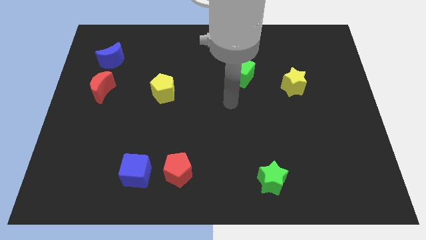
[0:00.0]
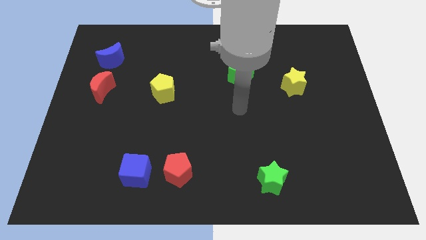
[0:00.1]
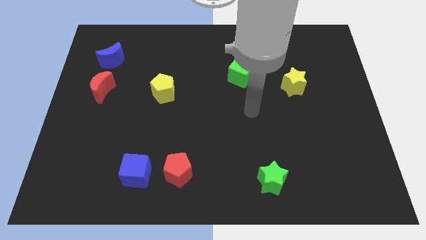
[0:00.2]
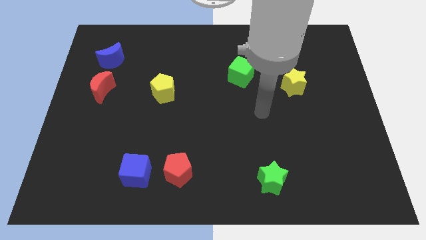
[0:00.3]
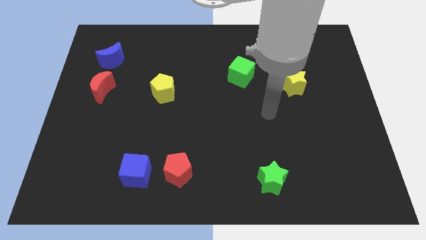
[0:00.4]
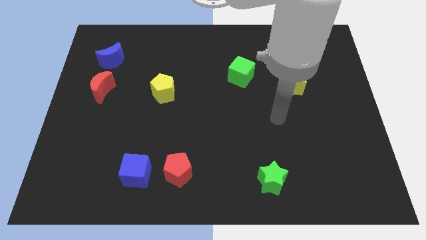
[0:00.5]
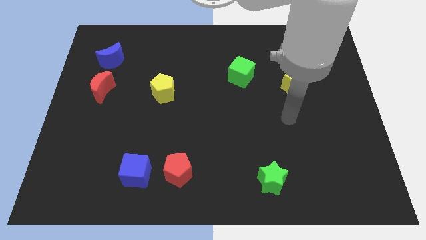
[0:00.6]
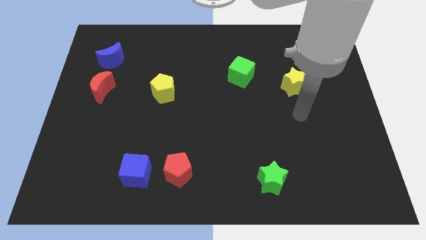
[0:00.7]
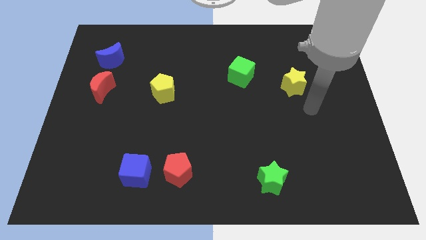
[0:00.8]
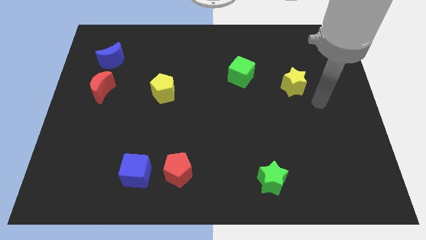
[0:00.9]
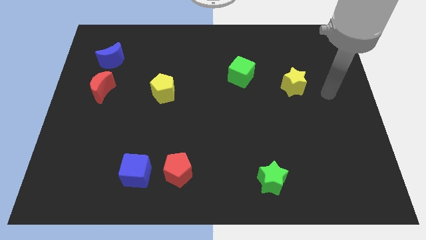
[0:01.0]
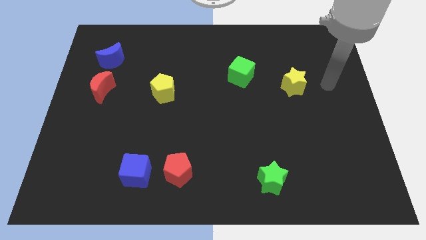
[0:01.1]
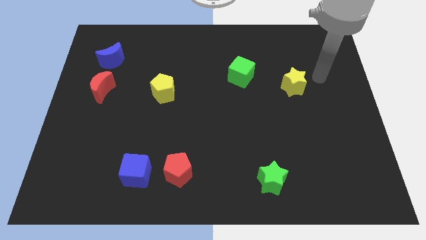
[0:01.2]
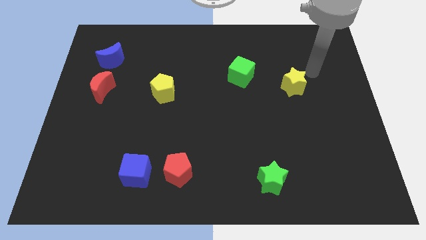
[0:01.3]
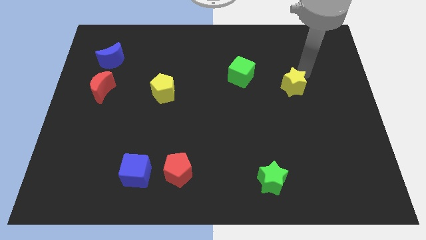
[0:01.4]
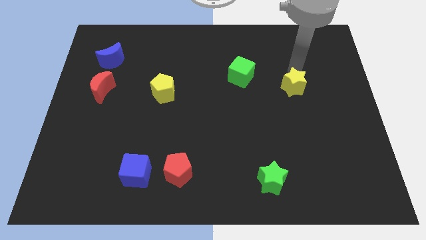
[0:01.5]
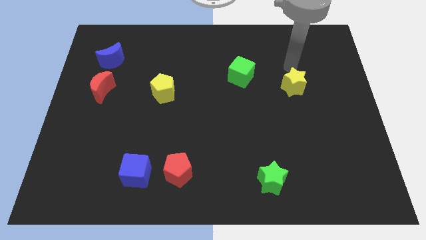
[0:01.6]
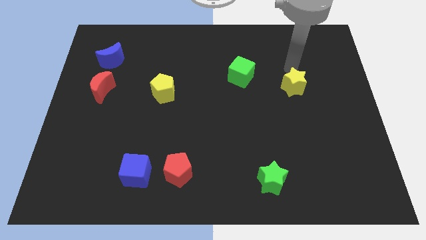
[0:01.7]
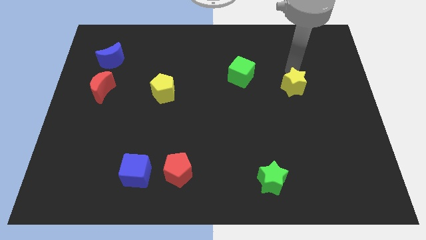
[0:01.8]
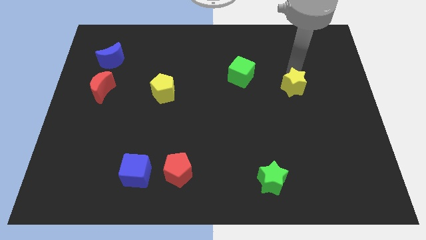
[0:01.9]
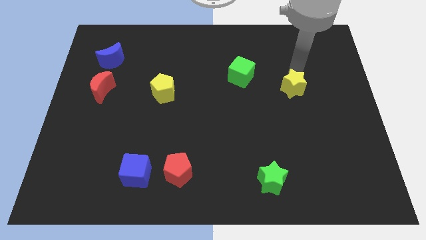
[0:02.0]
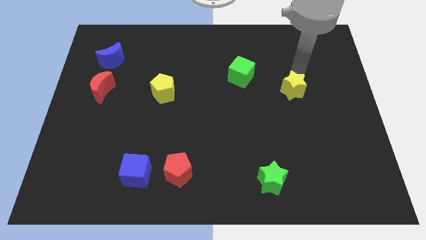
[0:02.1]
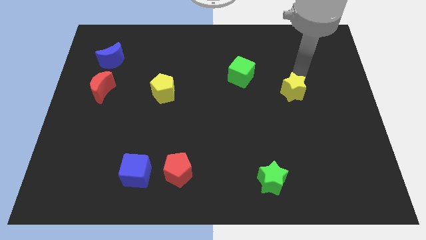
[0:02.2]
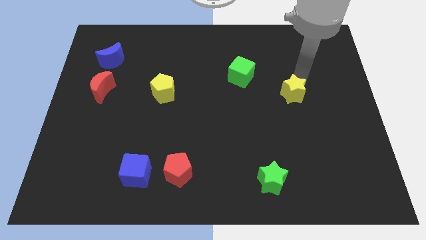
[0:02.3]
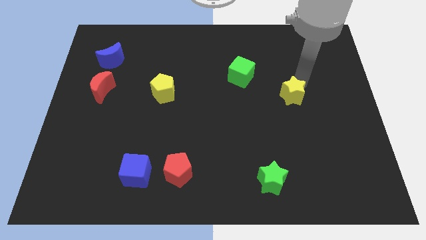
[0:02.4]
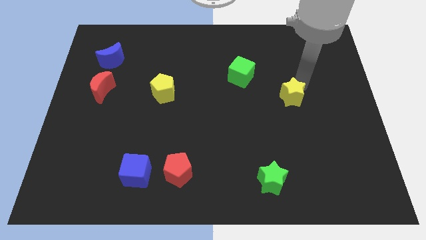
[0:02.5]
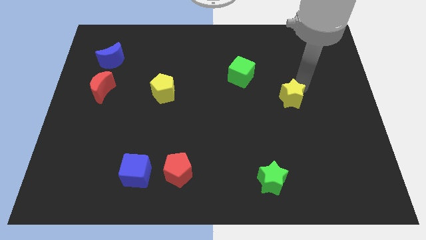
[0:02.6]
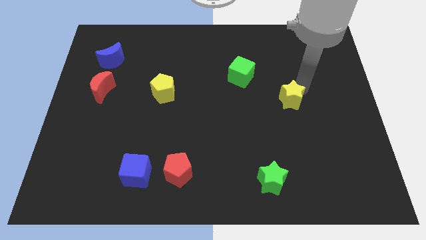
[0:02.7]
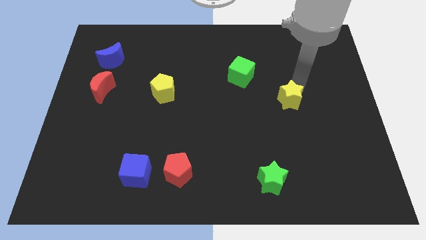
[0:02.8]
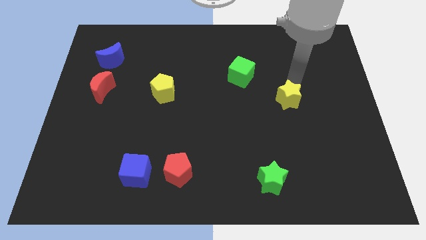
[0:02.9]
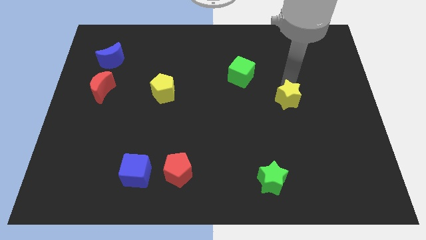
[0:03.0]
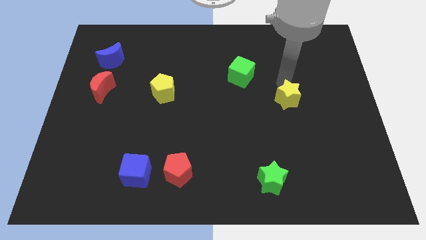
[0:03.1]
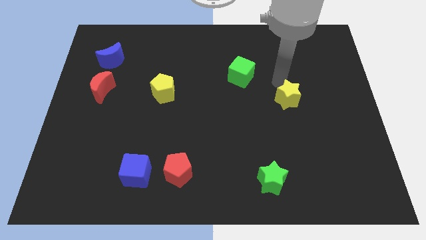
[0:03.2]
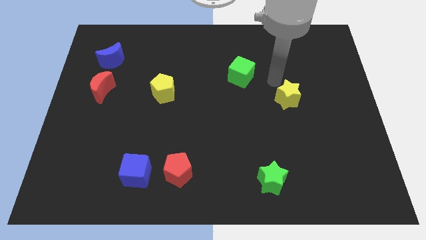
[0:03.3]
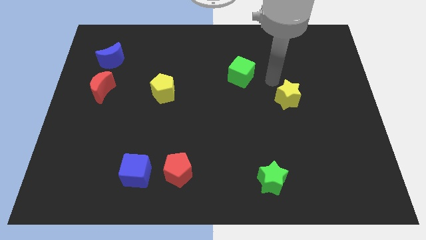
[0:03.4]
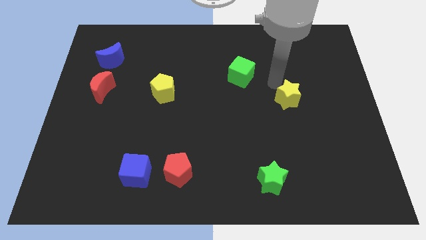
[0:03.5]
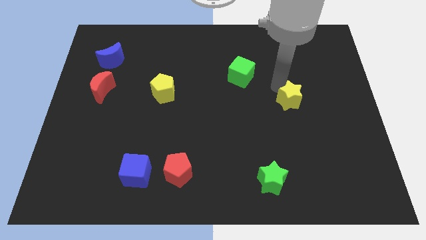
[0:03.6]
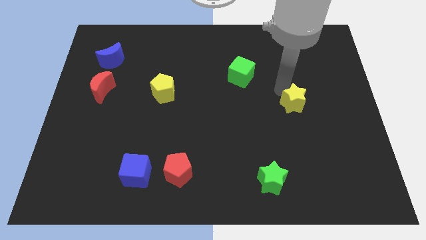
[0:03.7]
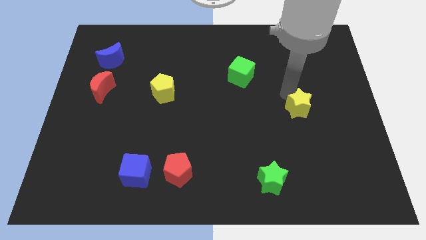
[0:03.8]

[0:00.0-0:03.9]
slightly push the yellow star downwards

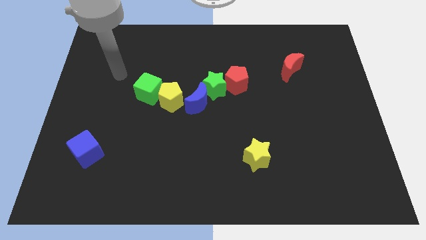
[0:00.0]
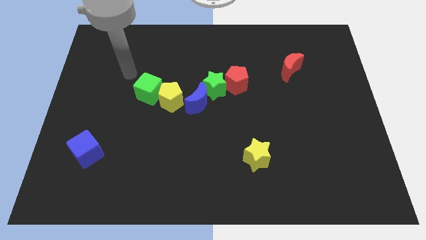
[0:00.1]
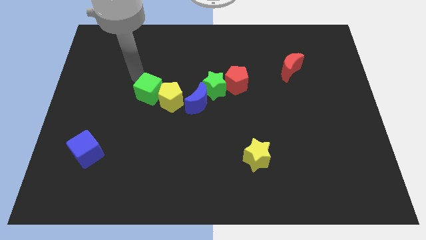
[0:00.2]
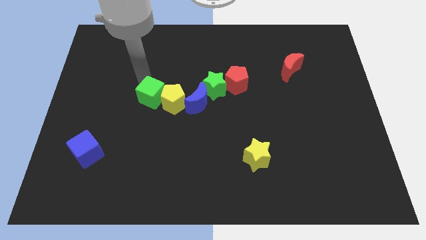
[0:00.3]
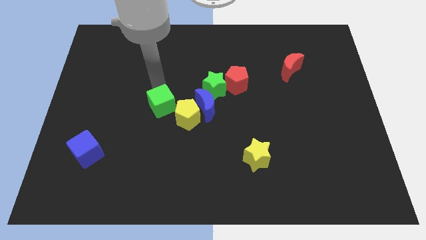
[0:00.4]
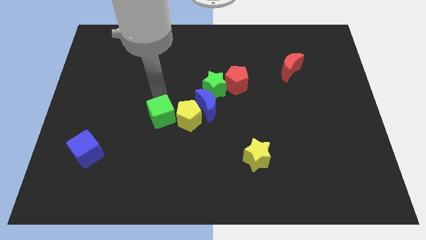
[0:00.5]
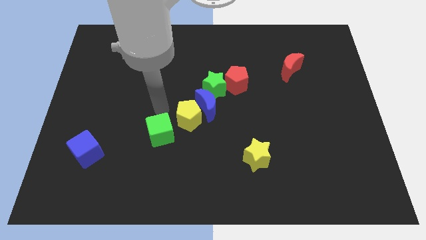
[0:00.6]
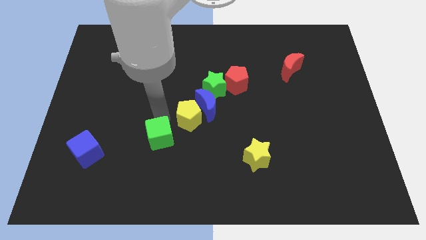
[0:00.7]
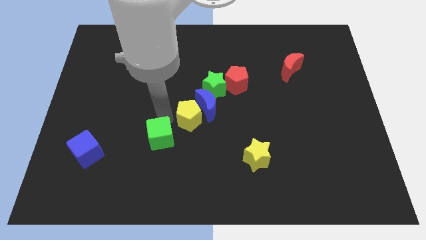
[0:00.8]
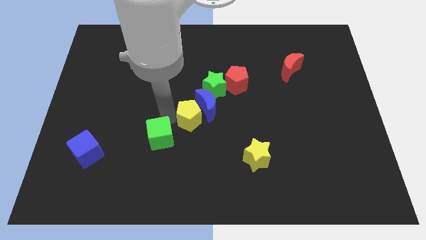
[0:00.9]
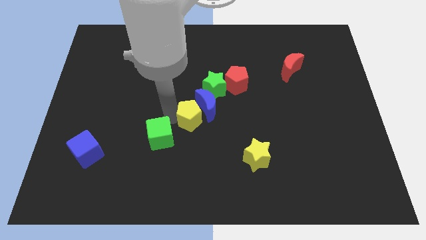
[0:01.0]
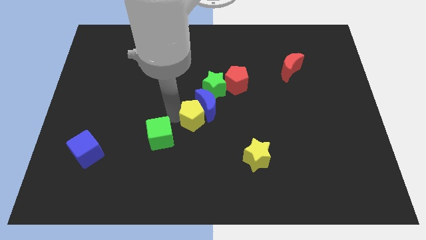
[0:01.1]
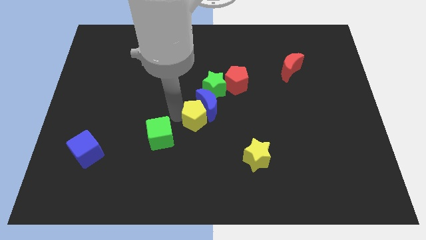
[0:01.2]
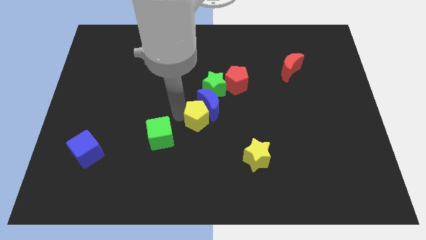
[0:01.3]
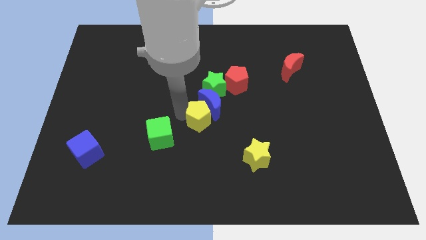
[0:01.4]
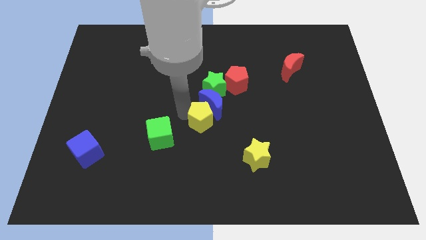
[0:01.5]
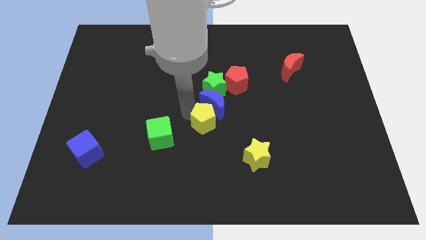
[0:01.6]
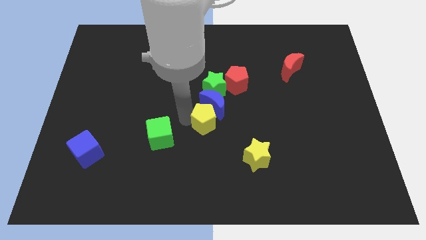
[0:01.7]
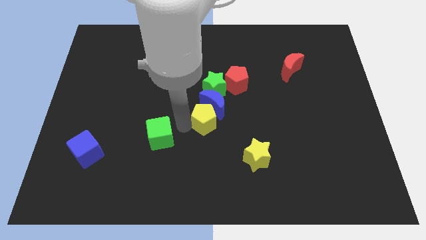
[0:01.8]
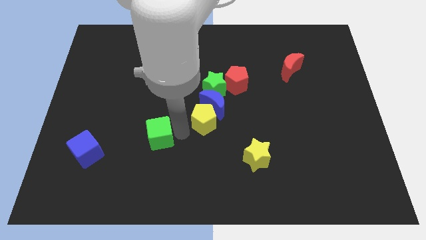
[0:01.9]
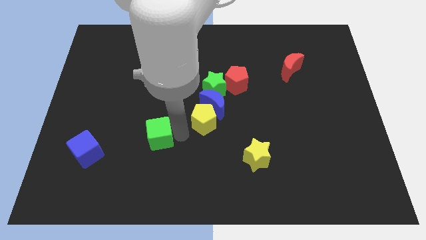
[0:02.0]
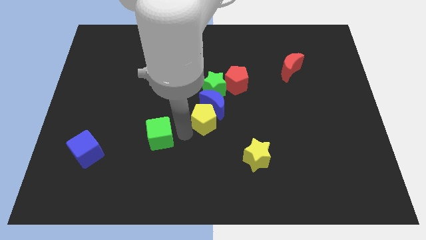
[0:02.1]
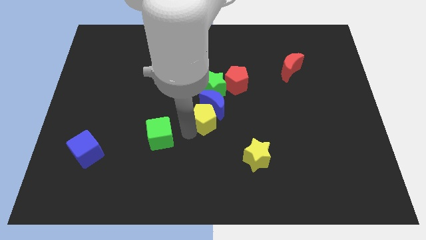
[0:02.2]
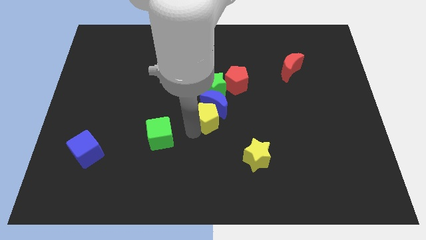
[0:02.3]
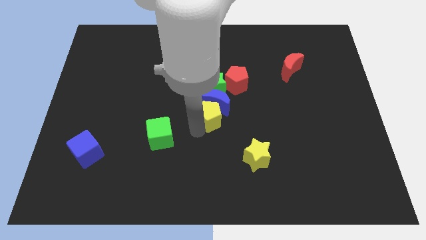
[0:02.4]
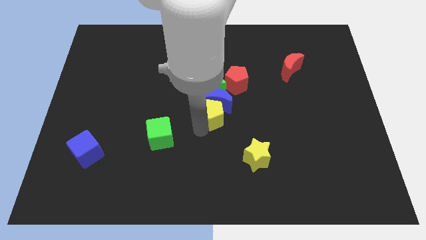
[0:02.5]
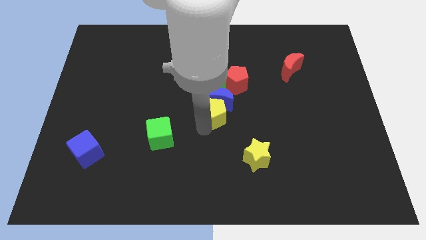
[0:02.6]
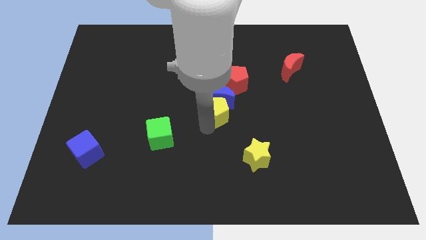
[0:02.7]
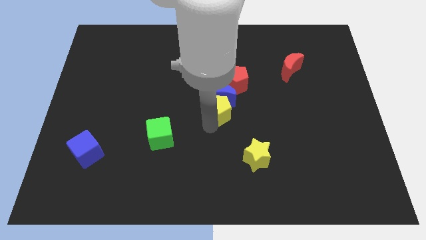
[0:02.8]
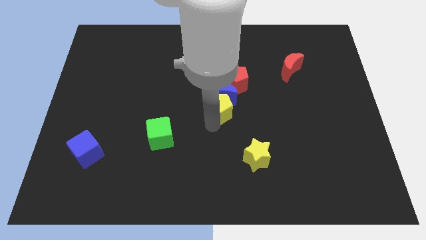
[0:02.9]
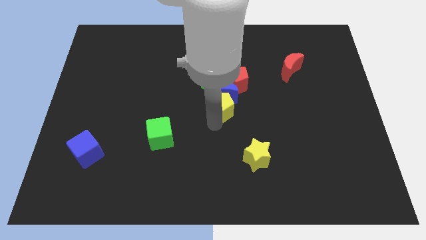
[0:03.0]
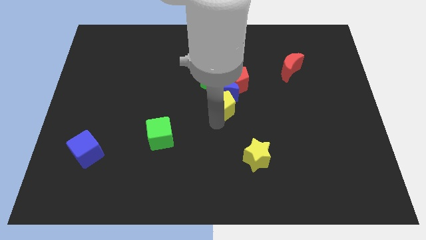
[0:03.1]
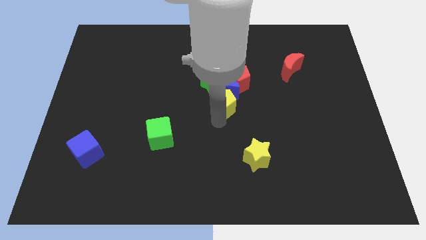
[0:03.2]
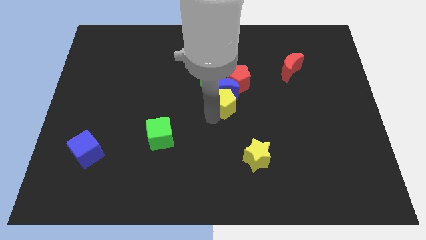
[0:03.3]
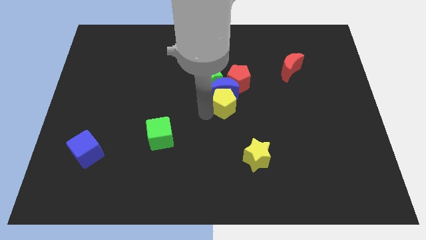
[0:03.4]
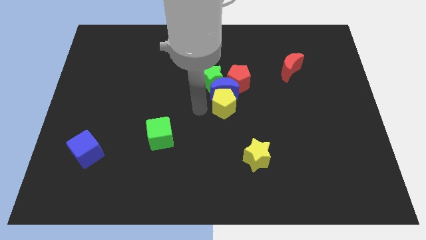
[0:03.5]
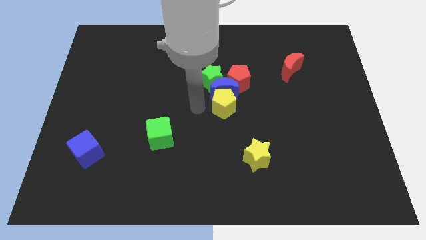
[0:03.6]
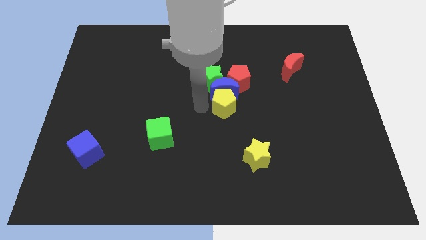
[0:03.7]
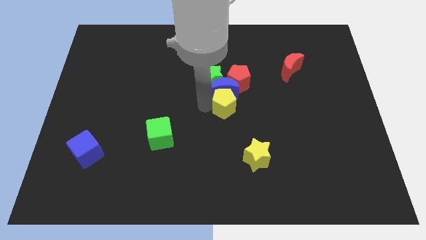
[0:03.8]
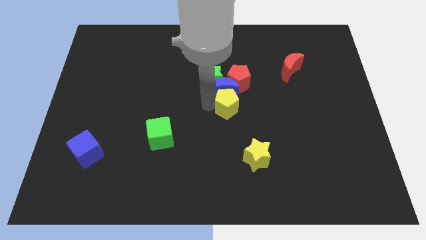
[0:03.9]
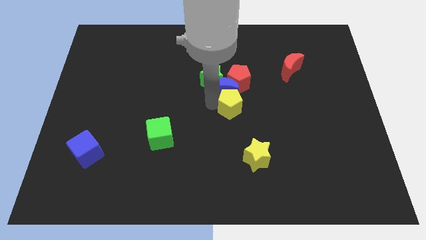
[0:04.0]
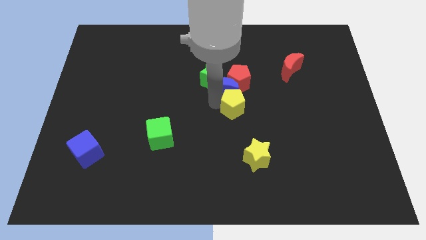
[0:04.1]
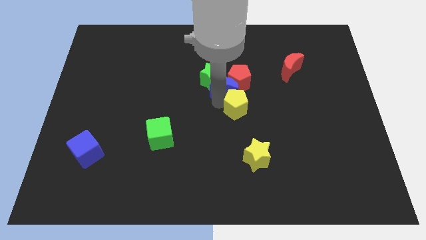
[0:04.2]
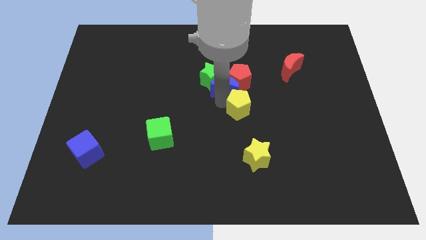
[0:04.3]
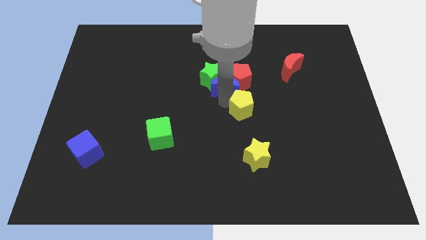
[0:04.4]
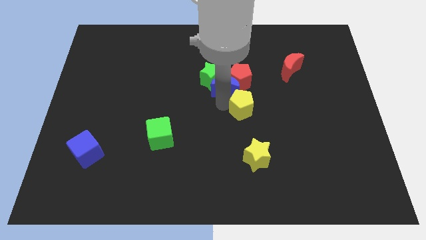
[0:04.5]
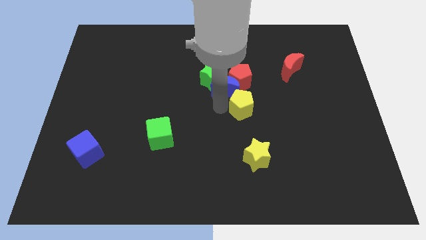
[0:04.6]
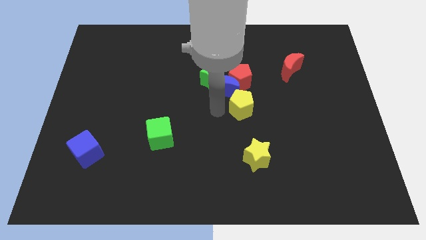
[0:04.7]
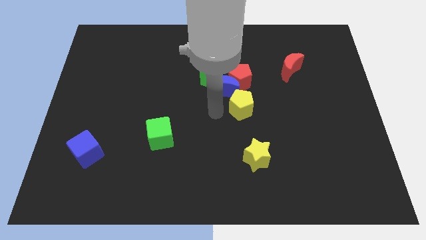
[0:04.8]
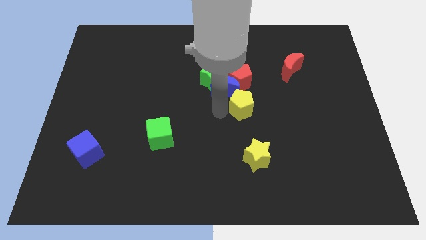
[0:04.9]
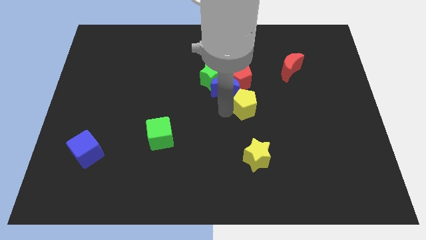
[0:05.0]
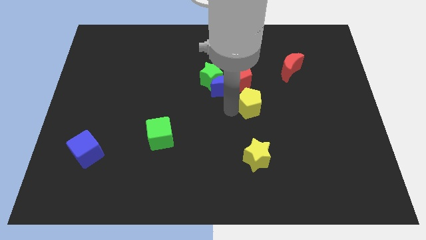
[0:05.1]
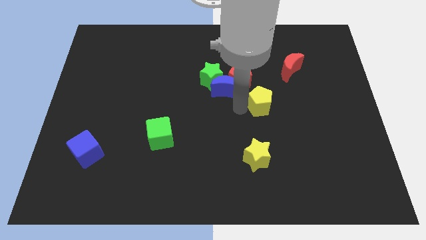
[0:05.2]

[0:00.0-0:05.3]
slide the yellow pentagon right
